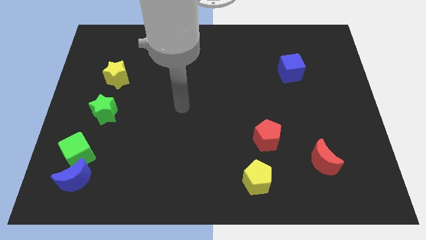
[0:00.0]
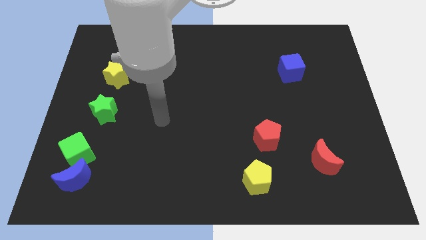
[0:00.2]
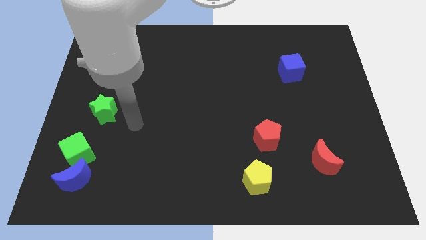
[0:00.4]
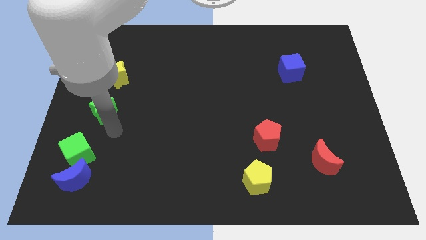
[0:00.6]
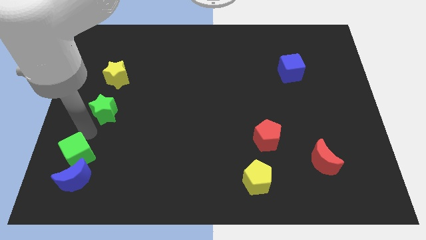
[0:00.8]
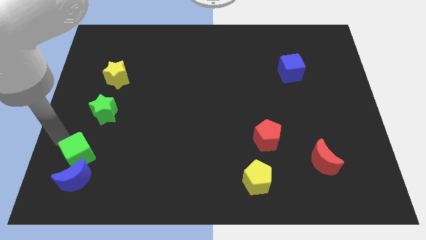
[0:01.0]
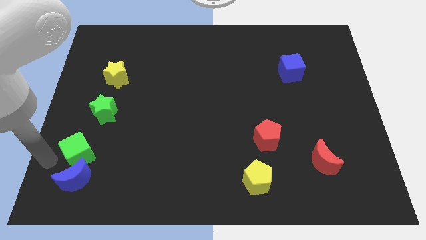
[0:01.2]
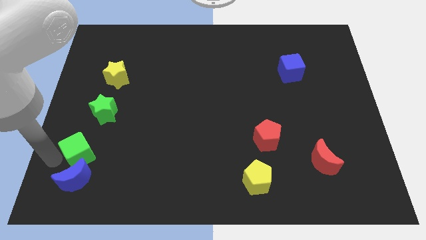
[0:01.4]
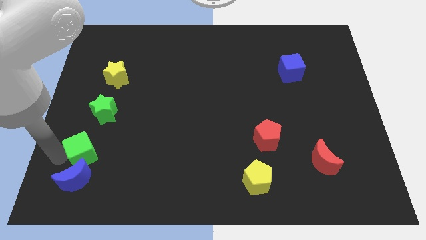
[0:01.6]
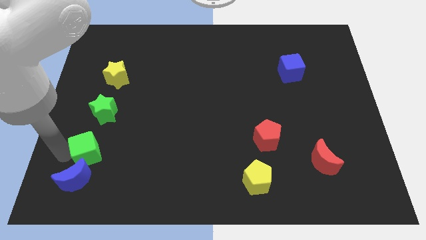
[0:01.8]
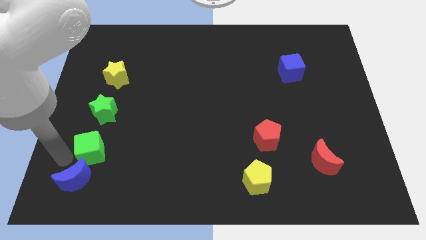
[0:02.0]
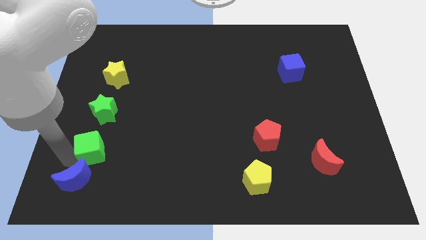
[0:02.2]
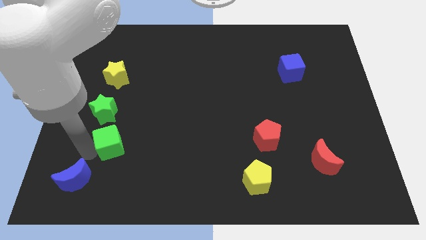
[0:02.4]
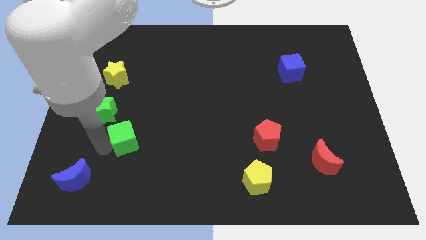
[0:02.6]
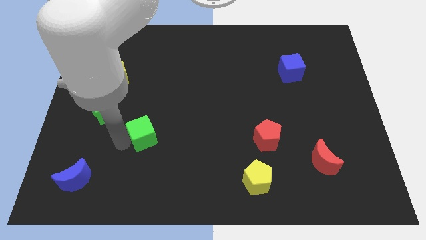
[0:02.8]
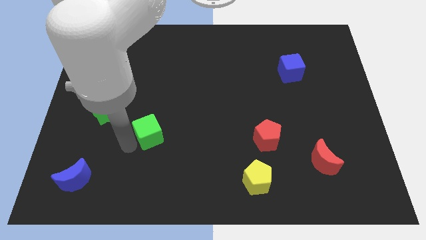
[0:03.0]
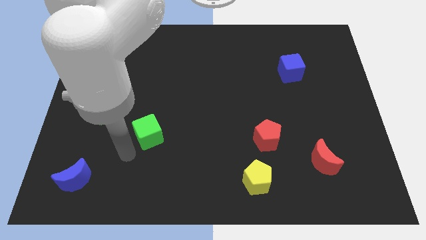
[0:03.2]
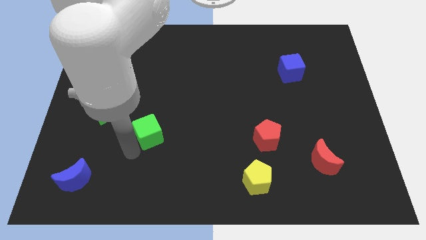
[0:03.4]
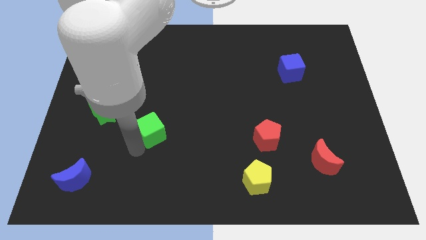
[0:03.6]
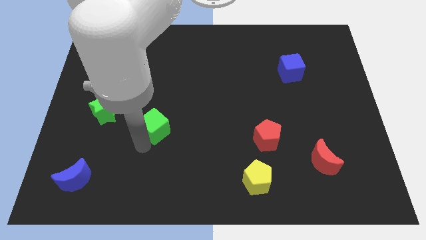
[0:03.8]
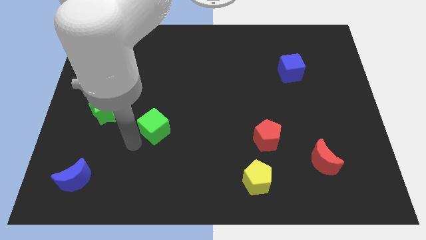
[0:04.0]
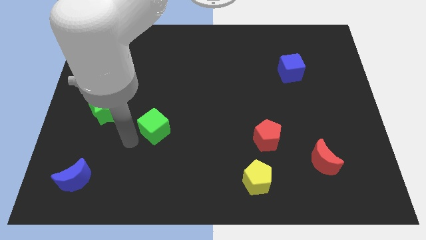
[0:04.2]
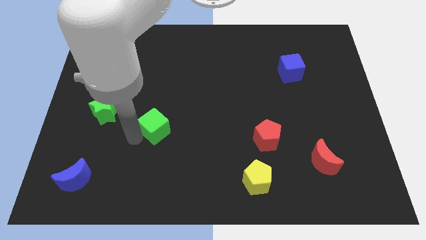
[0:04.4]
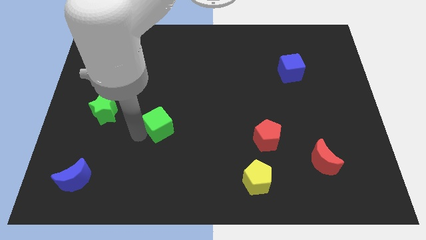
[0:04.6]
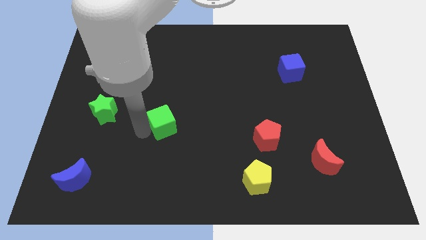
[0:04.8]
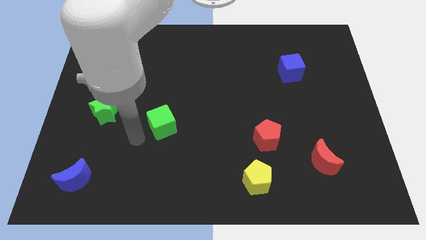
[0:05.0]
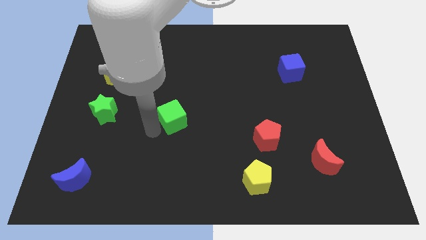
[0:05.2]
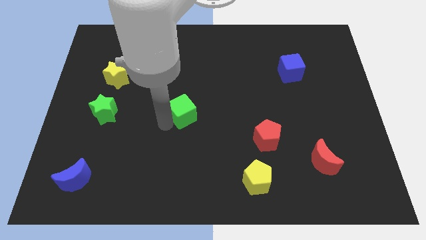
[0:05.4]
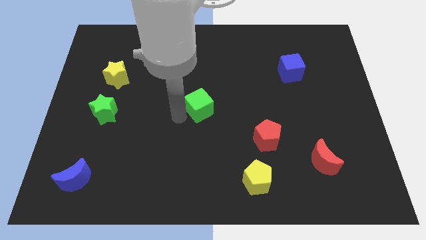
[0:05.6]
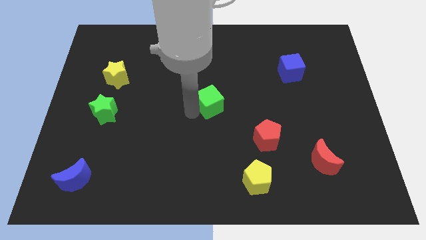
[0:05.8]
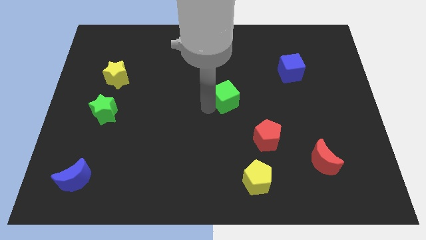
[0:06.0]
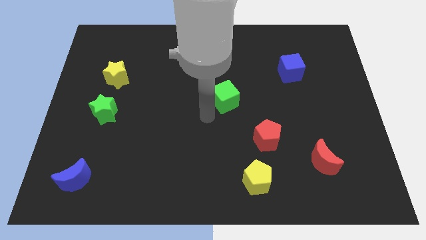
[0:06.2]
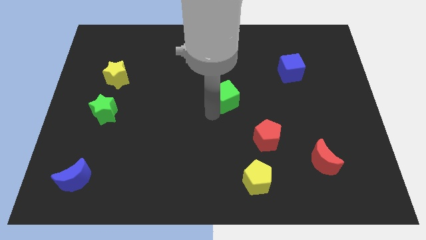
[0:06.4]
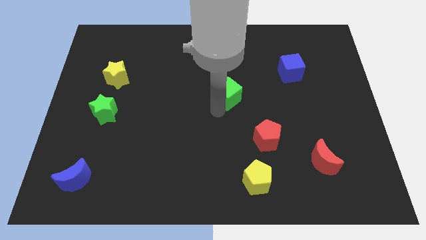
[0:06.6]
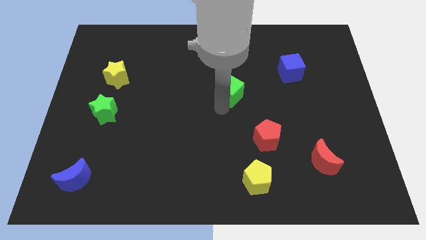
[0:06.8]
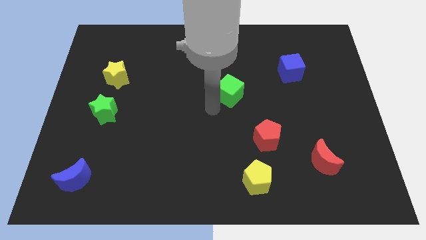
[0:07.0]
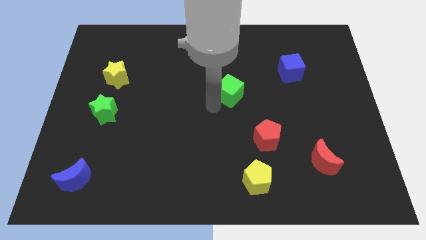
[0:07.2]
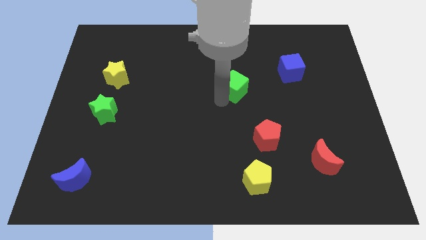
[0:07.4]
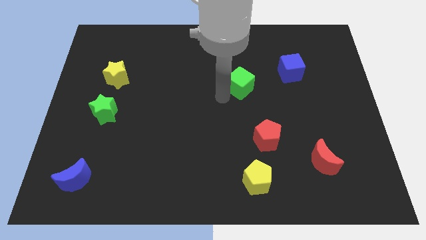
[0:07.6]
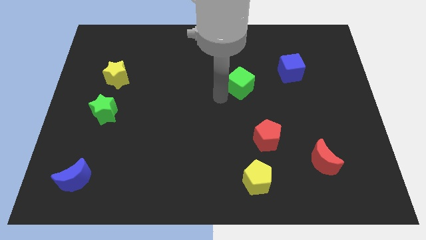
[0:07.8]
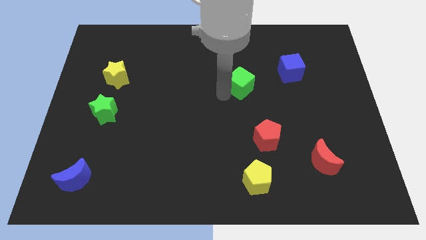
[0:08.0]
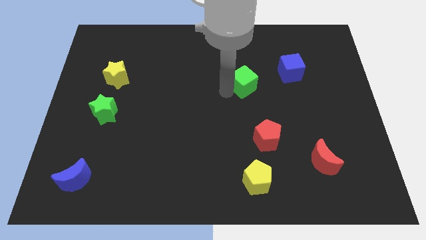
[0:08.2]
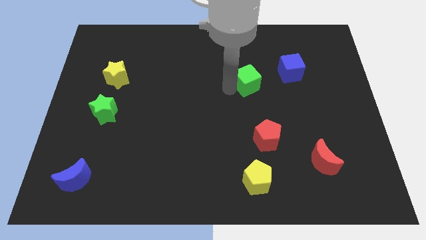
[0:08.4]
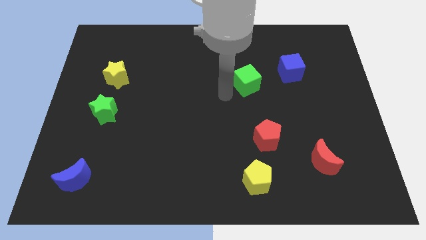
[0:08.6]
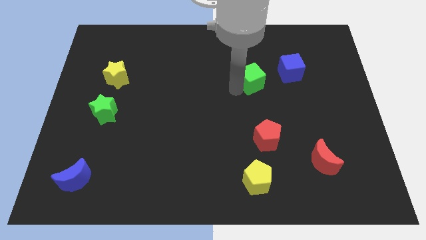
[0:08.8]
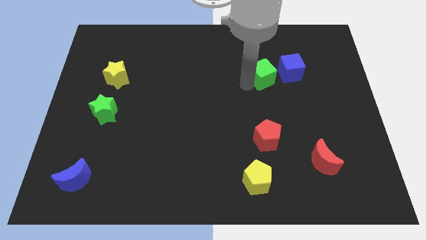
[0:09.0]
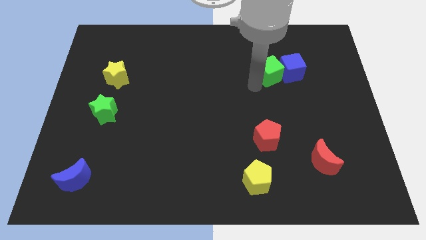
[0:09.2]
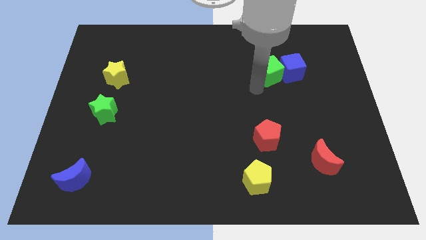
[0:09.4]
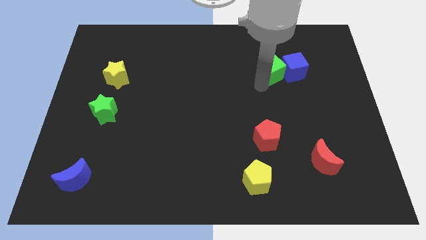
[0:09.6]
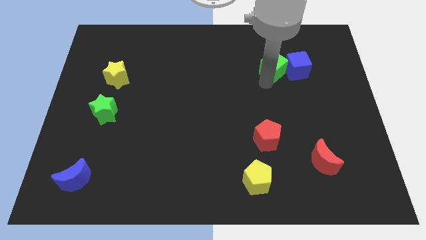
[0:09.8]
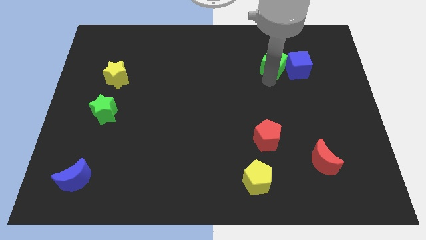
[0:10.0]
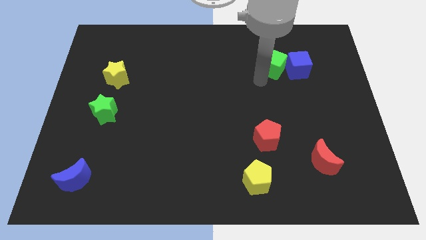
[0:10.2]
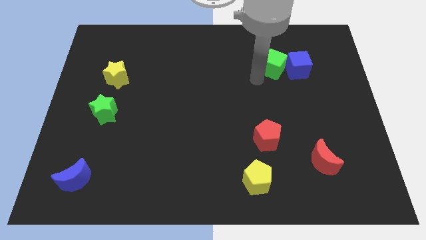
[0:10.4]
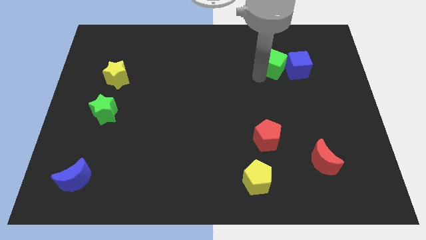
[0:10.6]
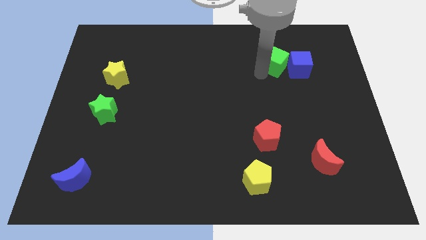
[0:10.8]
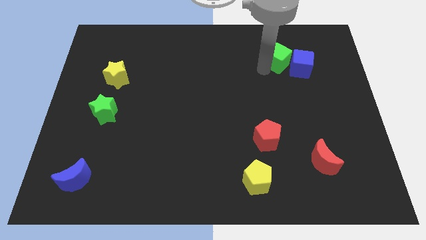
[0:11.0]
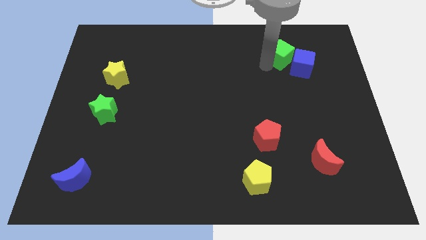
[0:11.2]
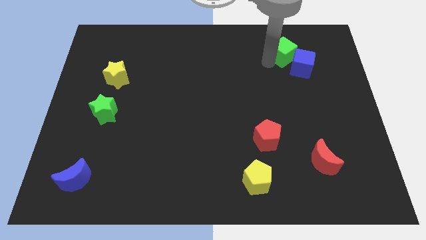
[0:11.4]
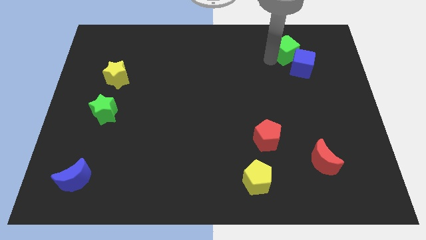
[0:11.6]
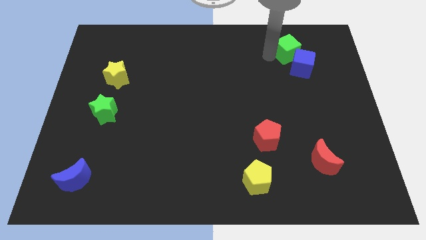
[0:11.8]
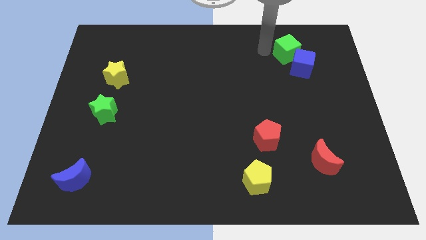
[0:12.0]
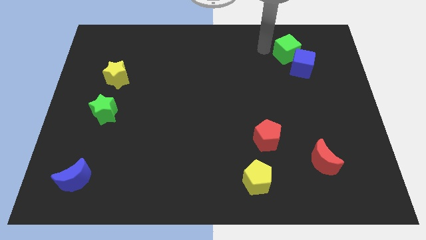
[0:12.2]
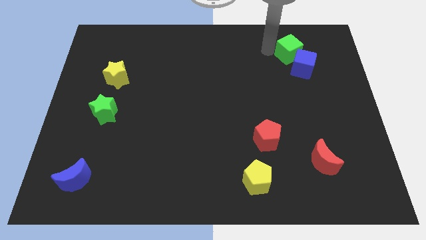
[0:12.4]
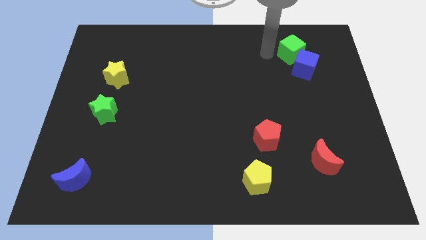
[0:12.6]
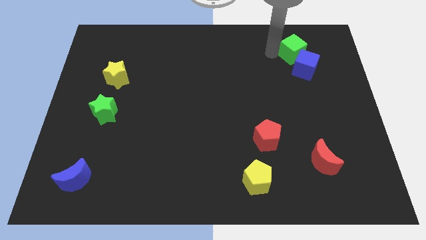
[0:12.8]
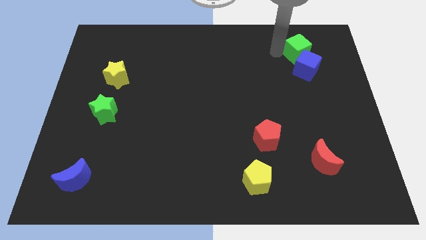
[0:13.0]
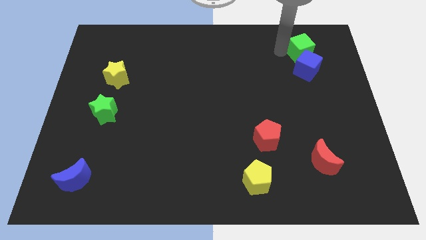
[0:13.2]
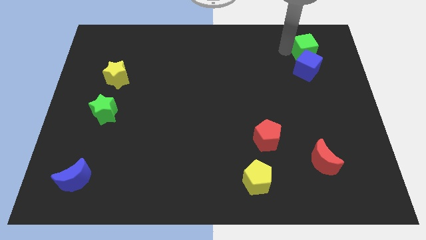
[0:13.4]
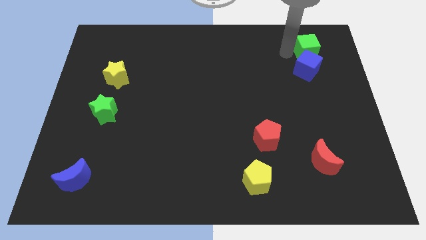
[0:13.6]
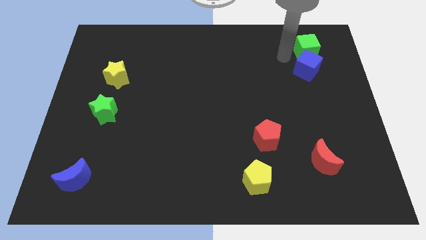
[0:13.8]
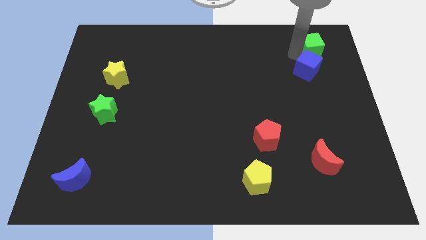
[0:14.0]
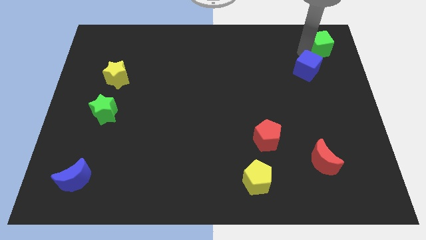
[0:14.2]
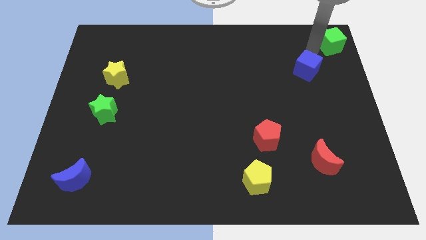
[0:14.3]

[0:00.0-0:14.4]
slide the green cube to the top right corner
